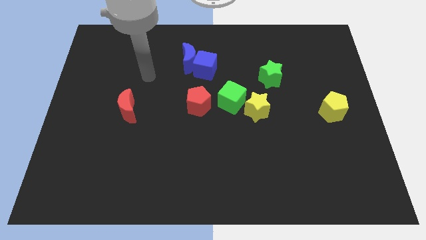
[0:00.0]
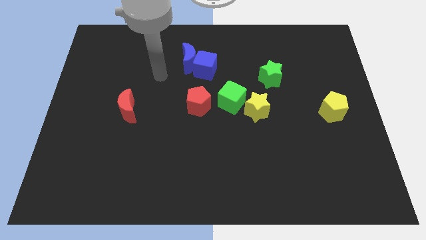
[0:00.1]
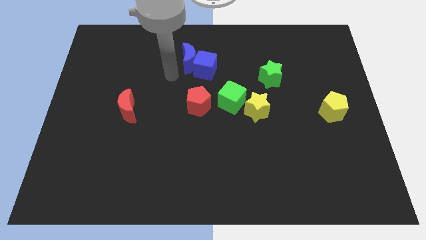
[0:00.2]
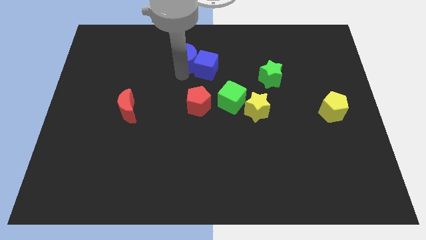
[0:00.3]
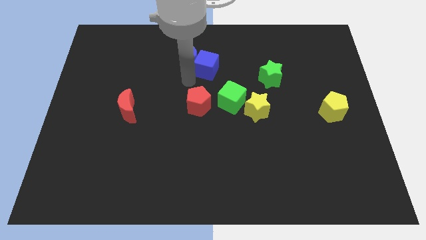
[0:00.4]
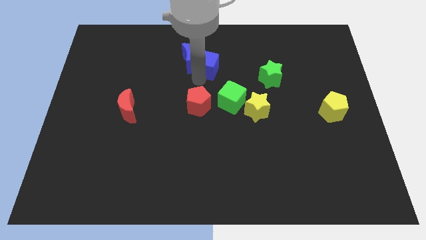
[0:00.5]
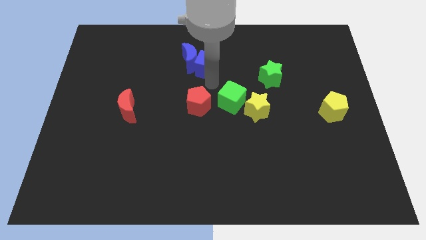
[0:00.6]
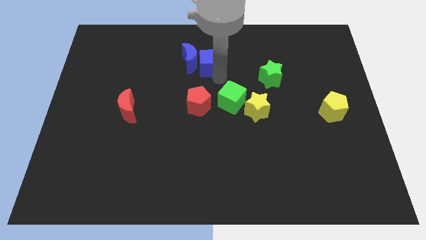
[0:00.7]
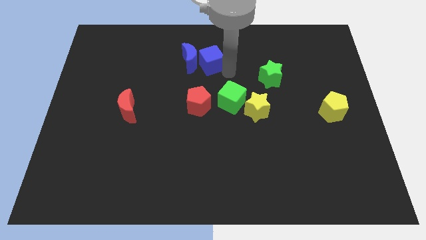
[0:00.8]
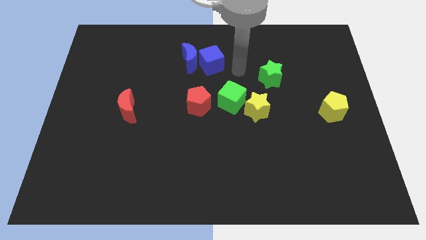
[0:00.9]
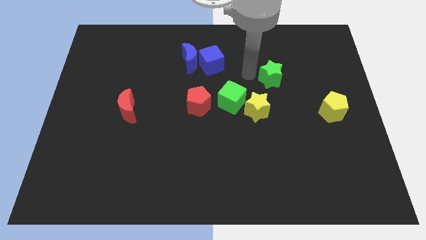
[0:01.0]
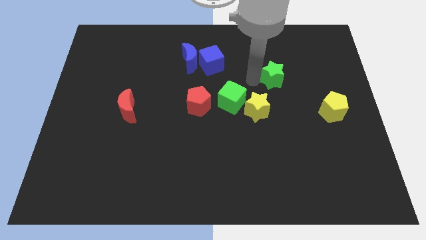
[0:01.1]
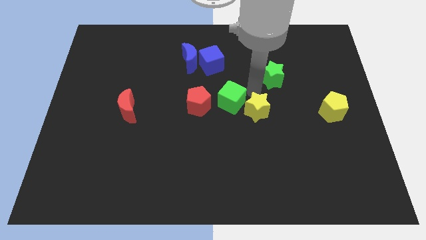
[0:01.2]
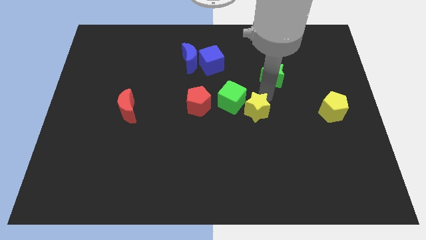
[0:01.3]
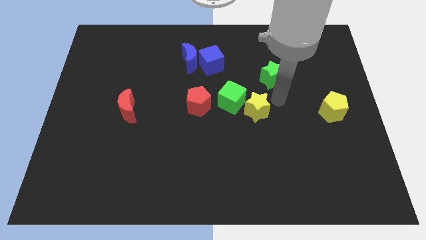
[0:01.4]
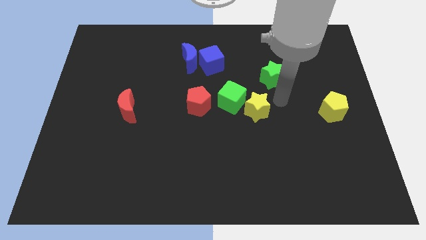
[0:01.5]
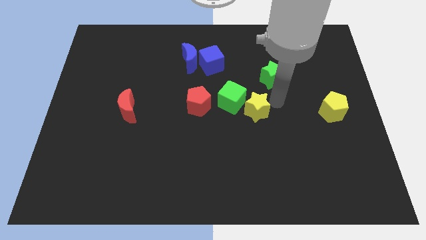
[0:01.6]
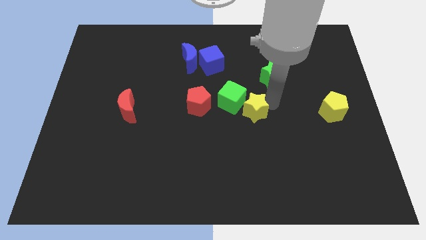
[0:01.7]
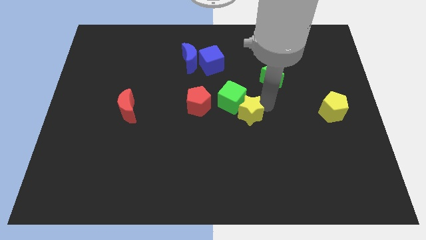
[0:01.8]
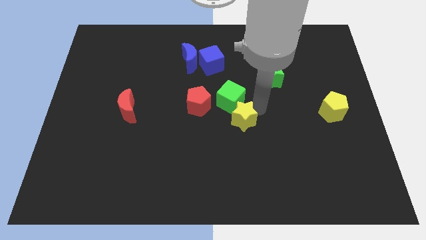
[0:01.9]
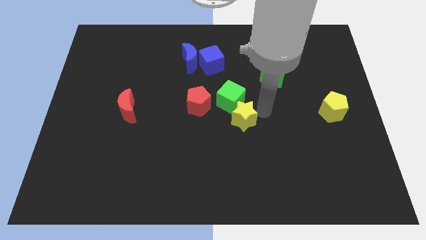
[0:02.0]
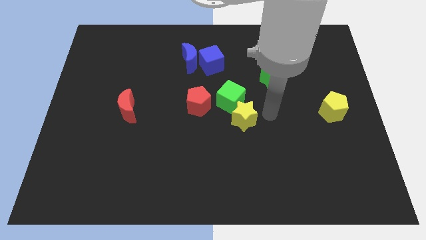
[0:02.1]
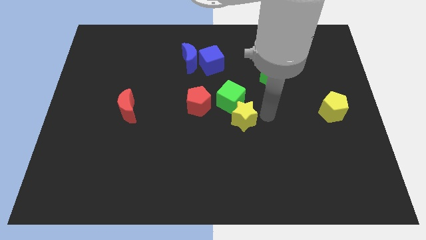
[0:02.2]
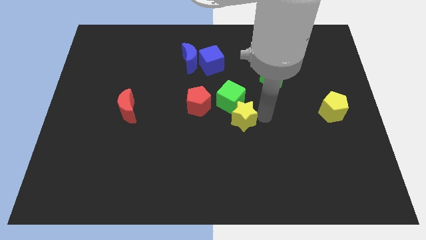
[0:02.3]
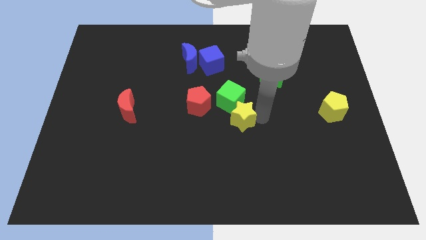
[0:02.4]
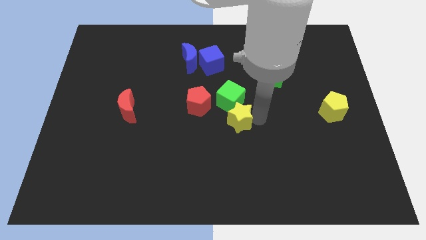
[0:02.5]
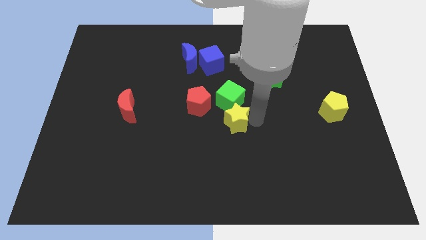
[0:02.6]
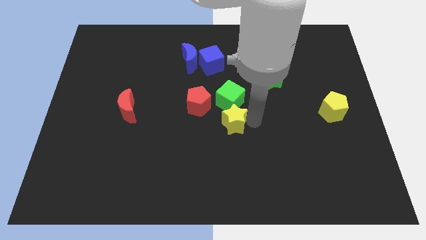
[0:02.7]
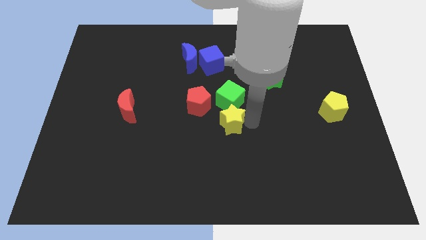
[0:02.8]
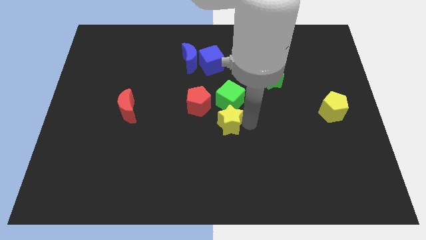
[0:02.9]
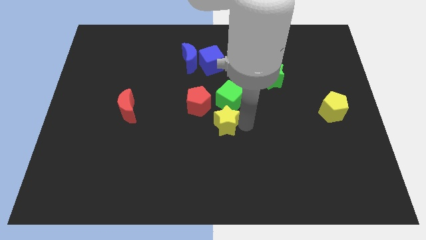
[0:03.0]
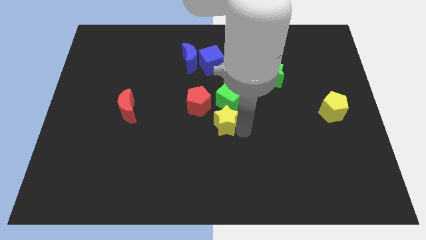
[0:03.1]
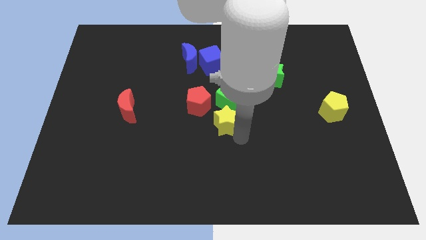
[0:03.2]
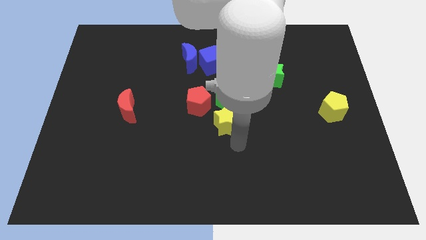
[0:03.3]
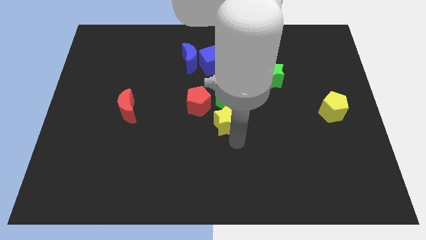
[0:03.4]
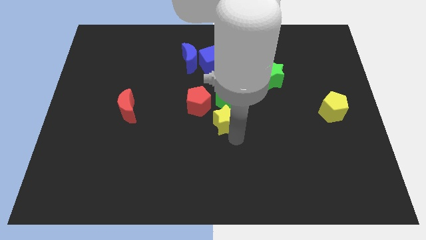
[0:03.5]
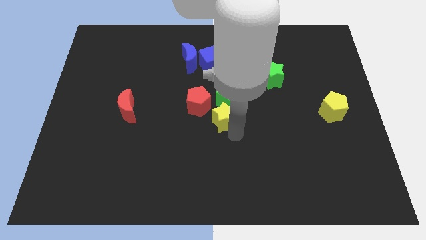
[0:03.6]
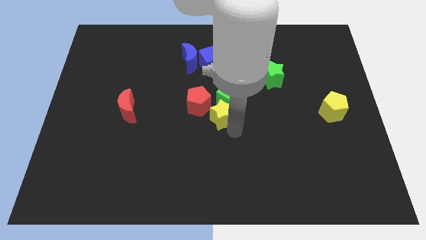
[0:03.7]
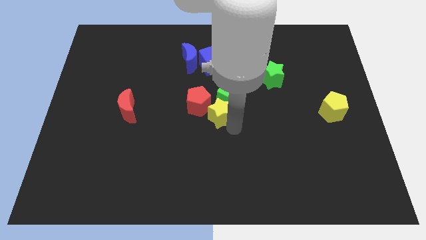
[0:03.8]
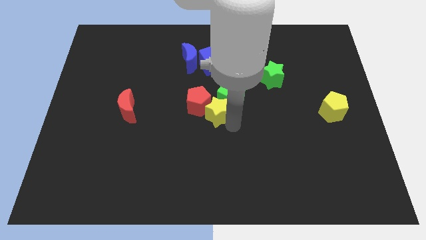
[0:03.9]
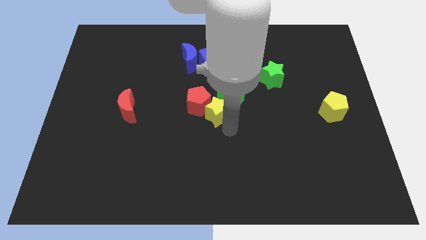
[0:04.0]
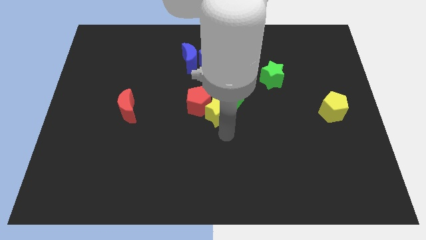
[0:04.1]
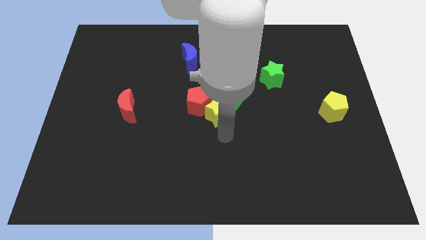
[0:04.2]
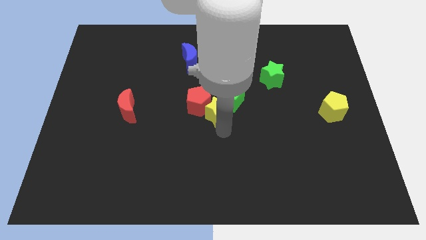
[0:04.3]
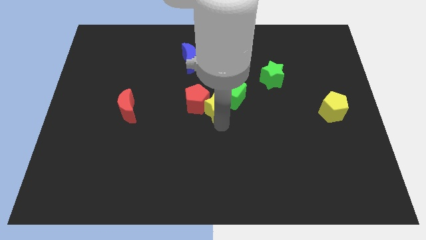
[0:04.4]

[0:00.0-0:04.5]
put the yellow star to the bottom side of the blue cube

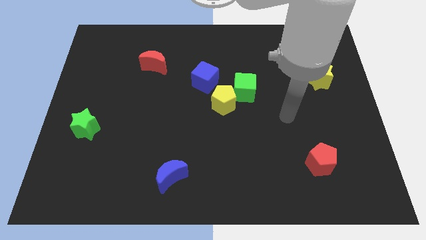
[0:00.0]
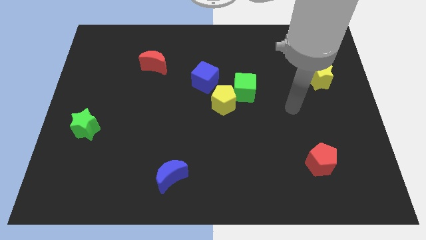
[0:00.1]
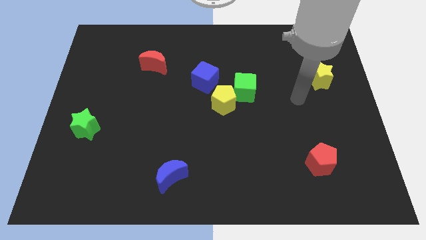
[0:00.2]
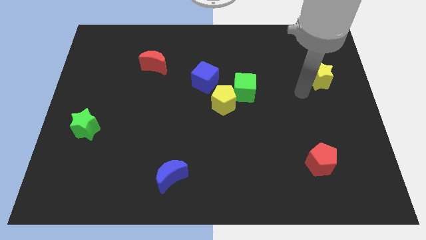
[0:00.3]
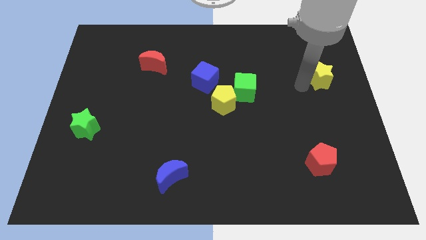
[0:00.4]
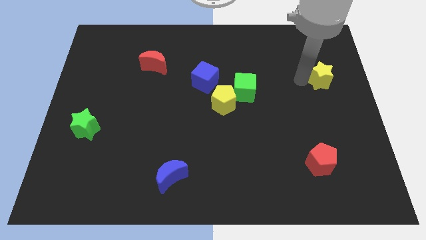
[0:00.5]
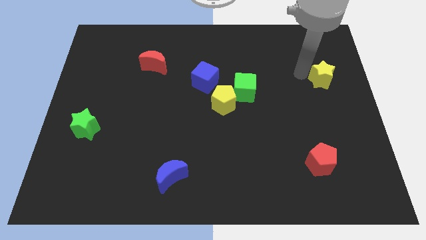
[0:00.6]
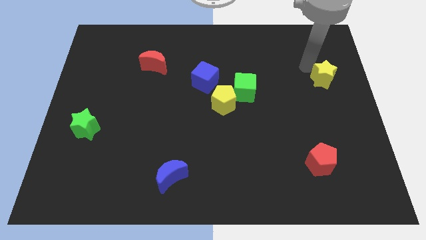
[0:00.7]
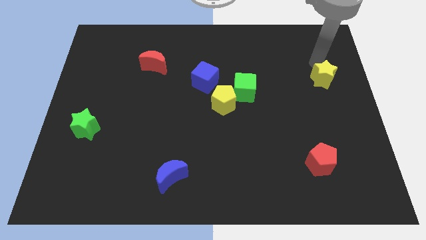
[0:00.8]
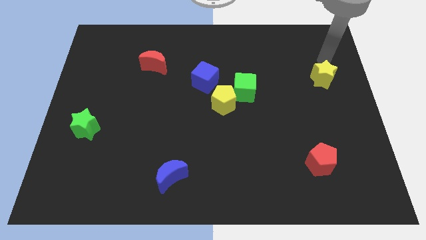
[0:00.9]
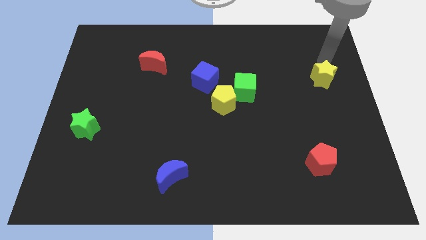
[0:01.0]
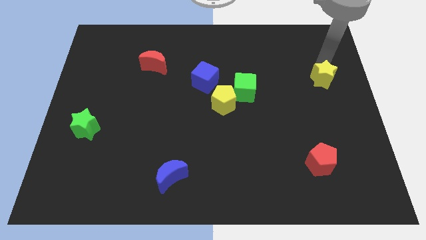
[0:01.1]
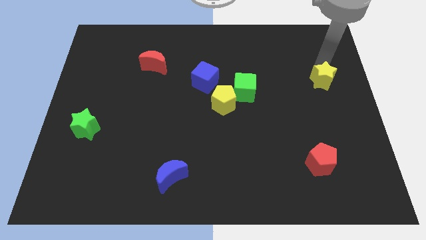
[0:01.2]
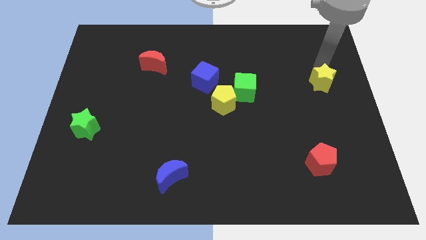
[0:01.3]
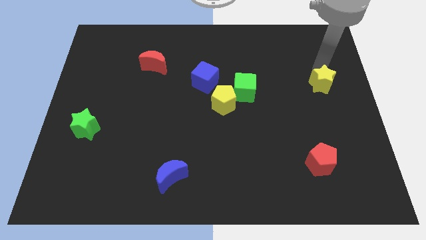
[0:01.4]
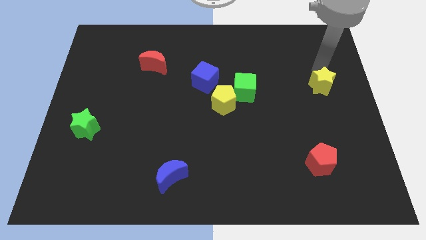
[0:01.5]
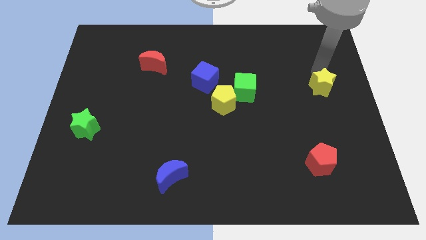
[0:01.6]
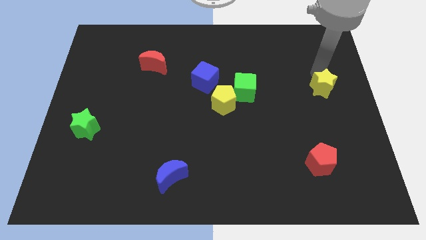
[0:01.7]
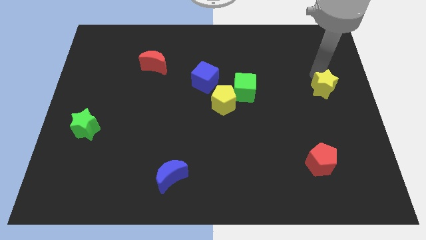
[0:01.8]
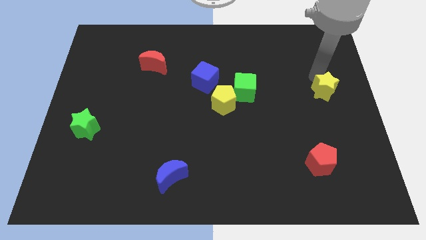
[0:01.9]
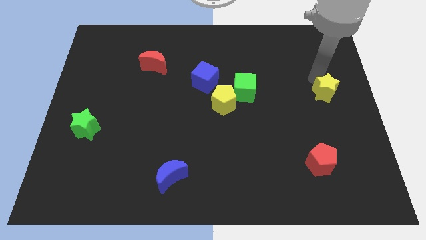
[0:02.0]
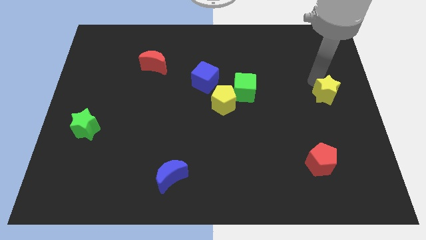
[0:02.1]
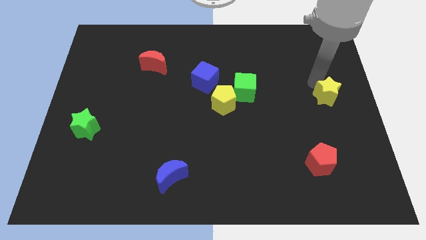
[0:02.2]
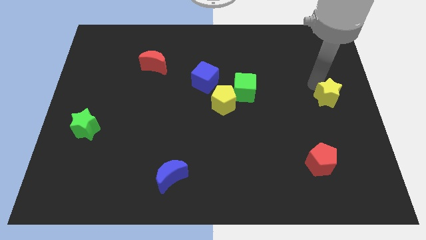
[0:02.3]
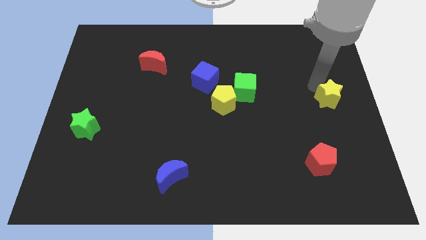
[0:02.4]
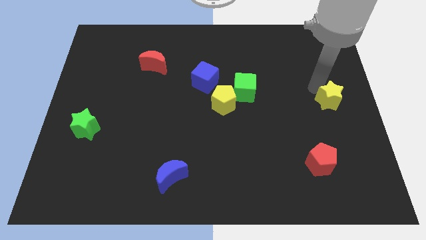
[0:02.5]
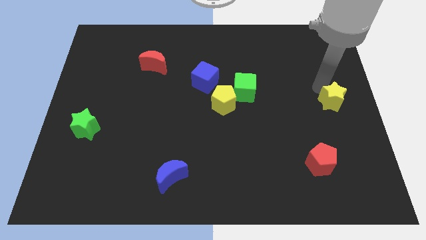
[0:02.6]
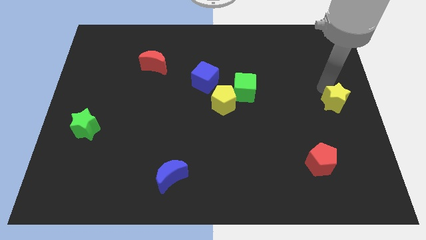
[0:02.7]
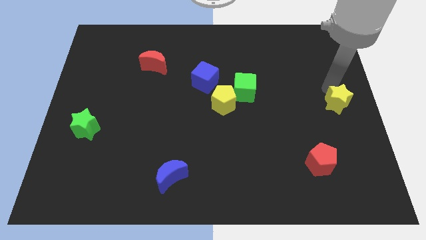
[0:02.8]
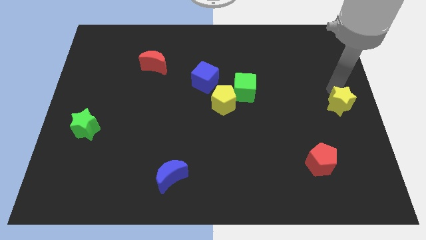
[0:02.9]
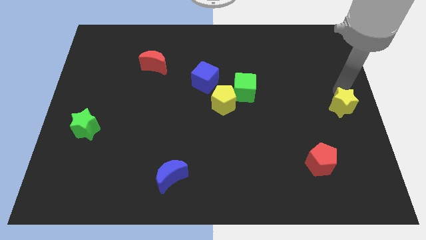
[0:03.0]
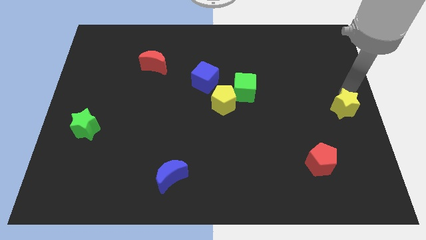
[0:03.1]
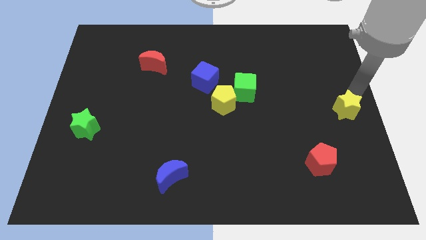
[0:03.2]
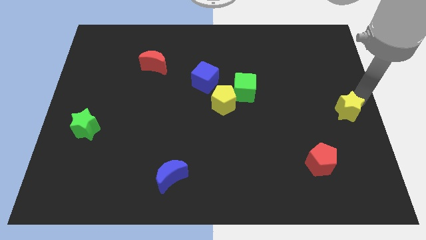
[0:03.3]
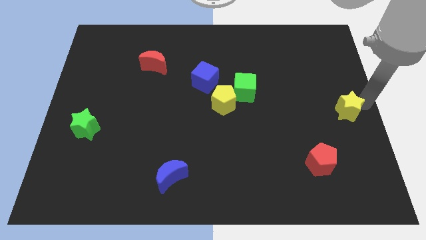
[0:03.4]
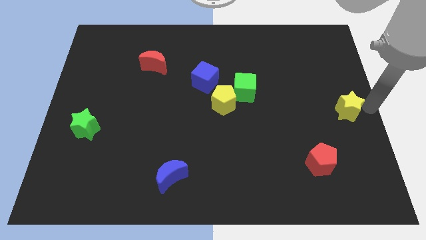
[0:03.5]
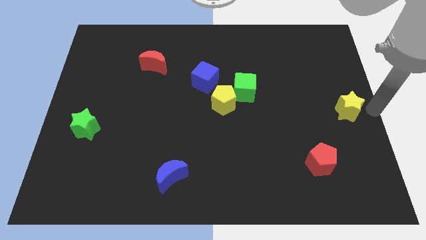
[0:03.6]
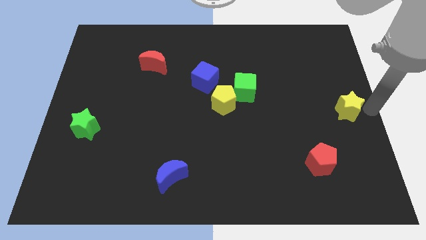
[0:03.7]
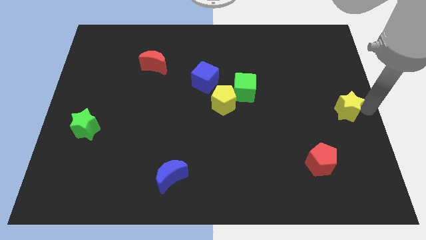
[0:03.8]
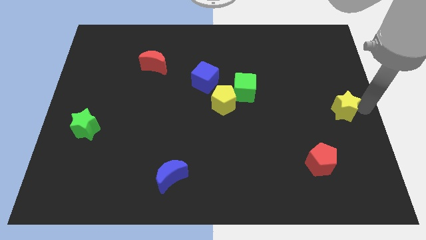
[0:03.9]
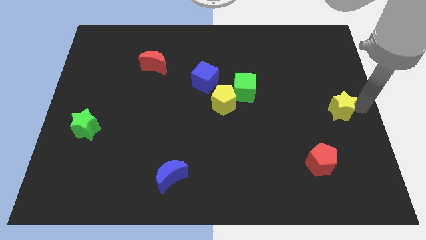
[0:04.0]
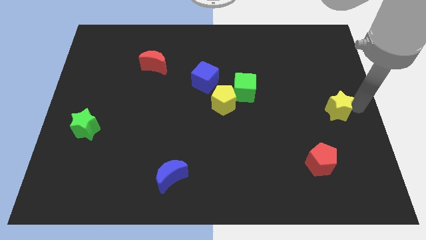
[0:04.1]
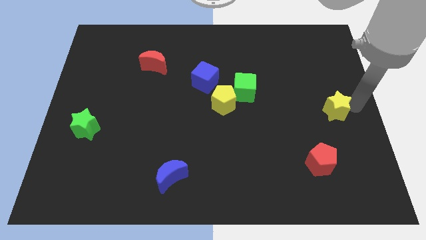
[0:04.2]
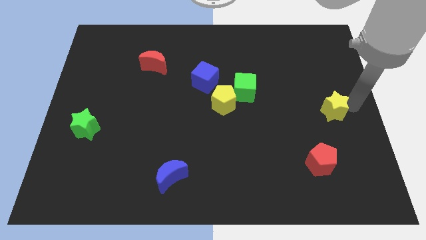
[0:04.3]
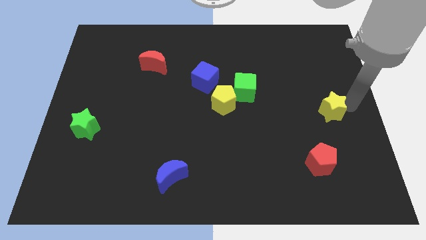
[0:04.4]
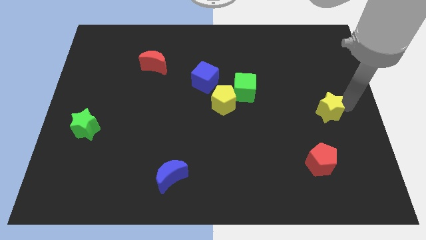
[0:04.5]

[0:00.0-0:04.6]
slide the yellow star to the top of the red pentagon
